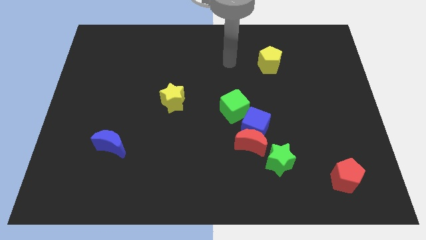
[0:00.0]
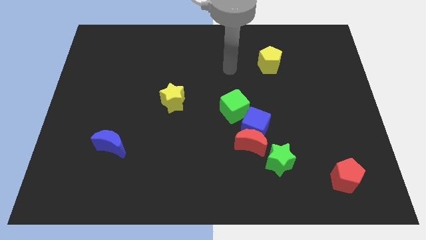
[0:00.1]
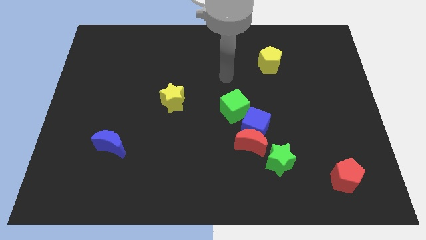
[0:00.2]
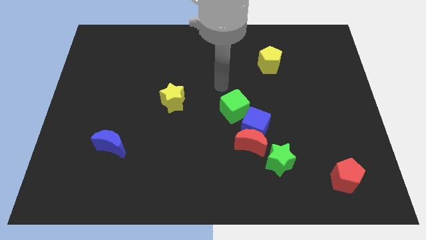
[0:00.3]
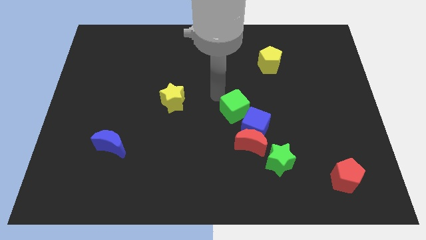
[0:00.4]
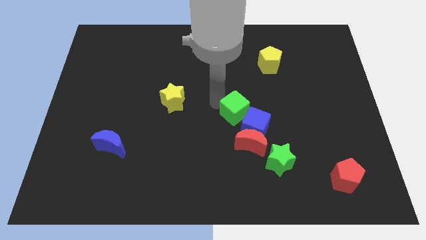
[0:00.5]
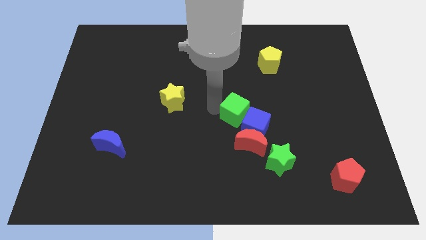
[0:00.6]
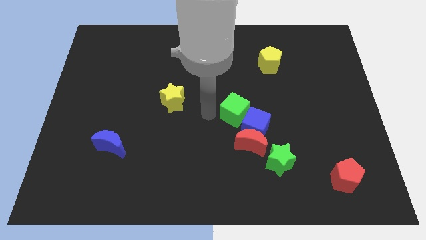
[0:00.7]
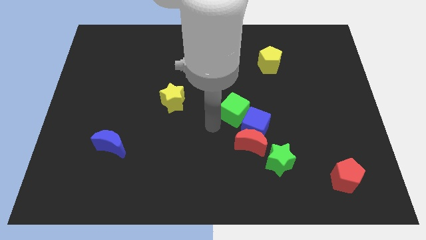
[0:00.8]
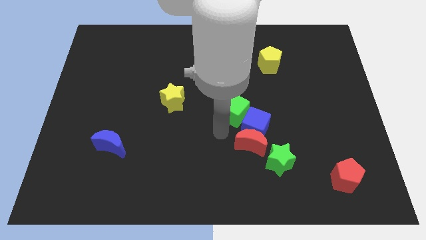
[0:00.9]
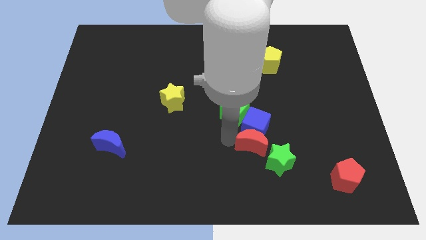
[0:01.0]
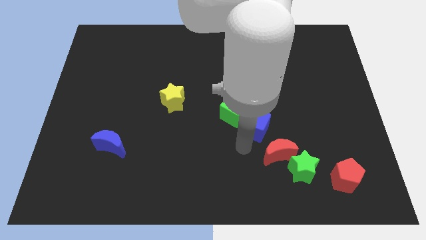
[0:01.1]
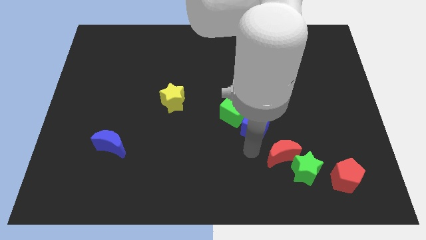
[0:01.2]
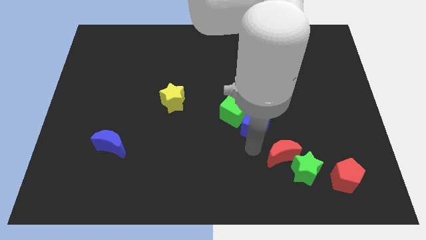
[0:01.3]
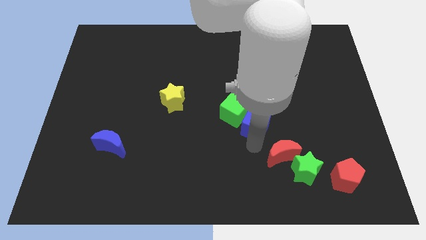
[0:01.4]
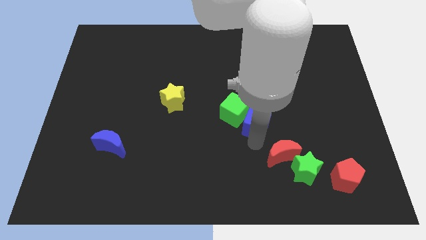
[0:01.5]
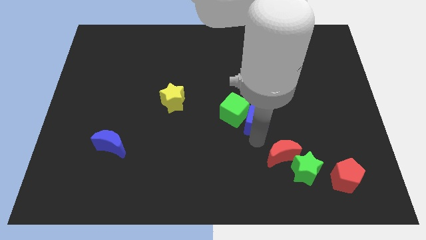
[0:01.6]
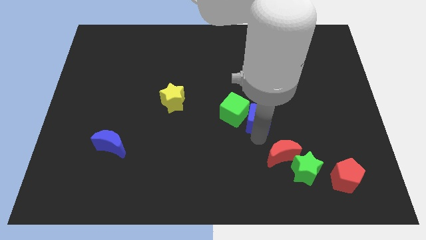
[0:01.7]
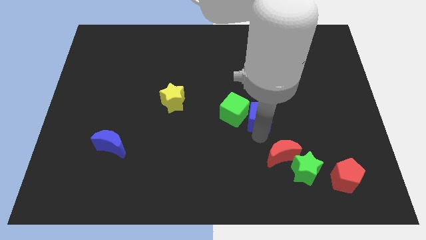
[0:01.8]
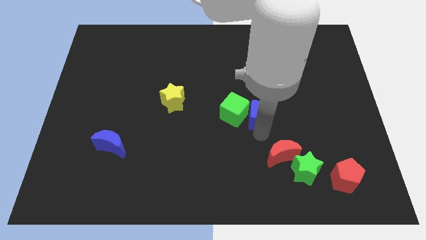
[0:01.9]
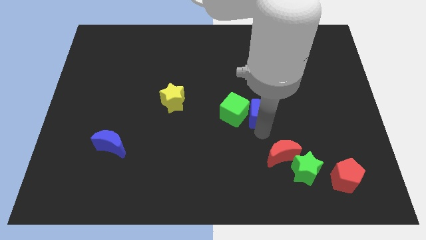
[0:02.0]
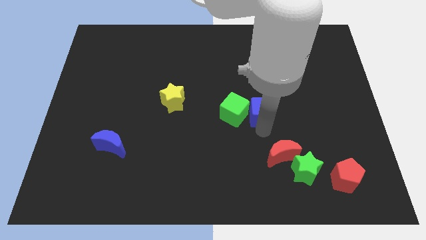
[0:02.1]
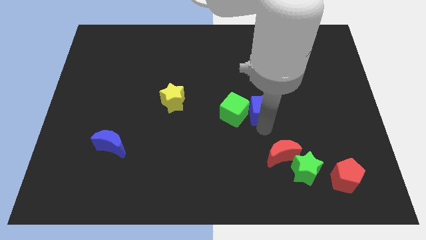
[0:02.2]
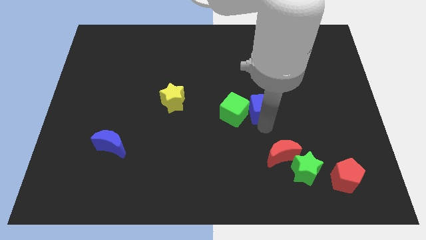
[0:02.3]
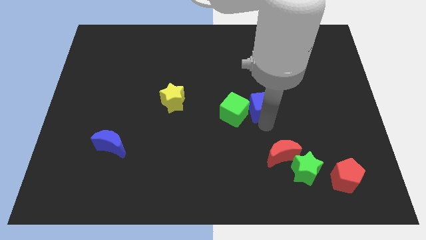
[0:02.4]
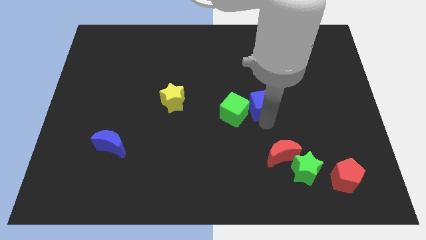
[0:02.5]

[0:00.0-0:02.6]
move the blue cube away from the red moon, green cube, and green star

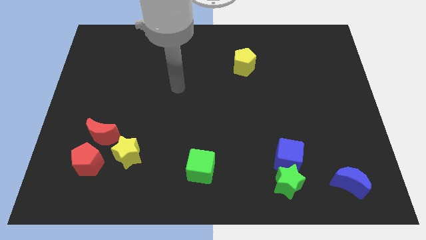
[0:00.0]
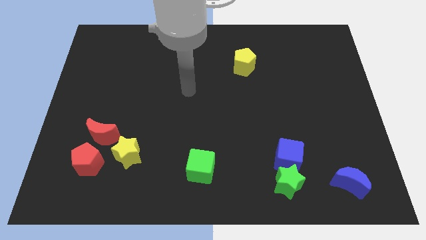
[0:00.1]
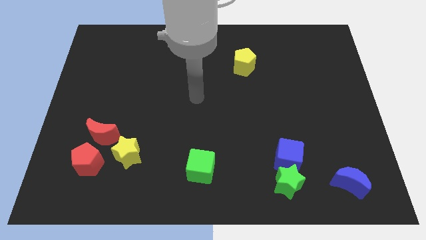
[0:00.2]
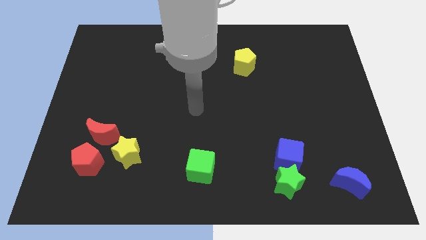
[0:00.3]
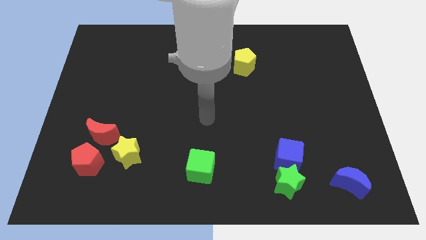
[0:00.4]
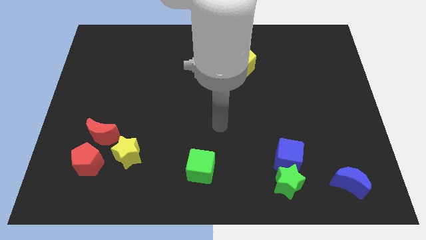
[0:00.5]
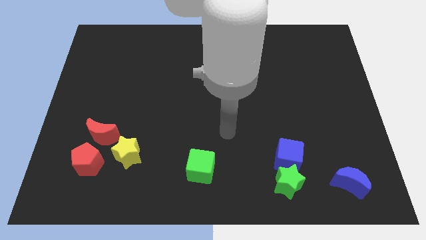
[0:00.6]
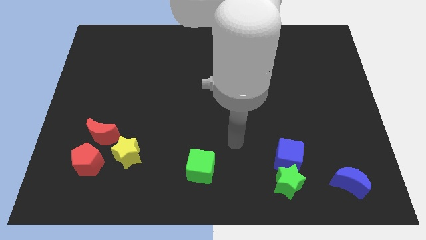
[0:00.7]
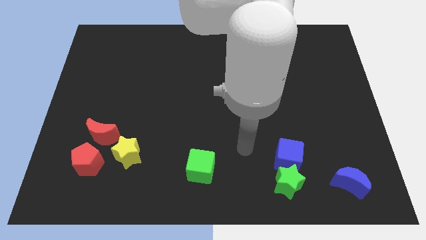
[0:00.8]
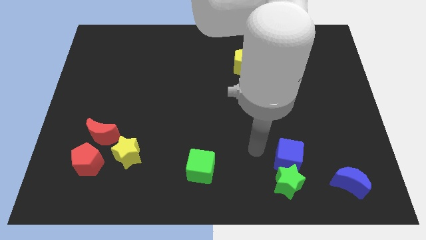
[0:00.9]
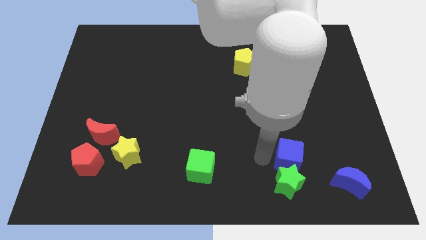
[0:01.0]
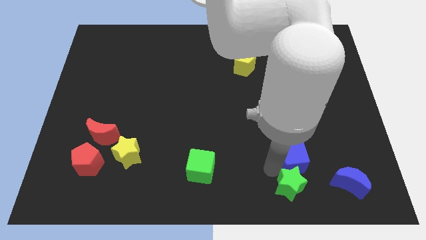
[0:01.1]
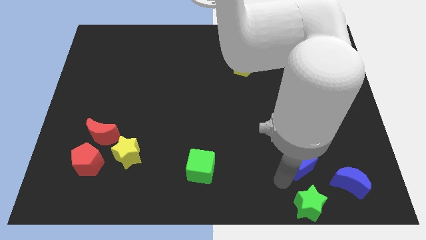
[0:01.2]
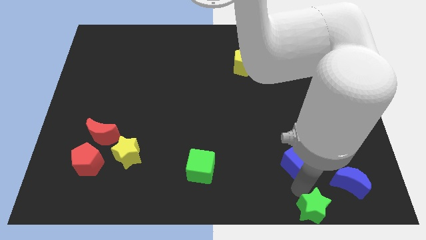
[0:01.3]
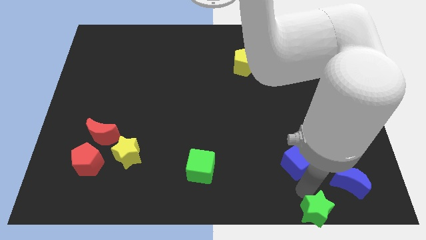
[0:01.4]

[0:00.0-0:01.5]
pull the blue cube apart from the green star

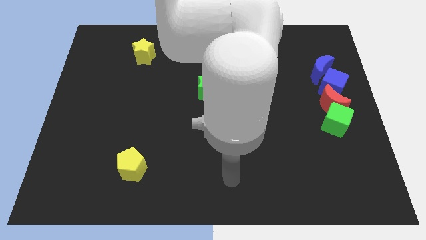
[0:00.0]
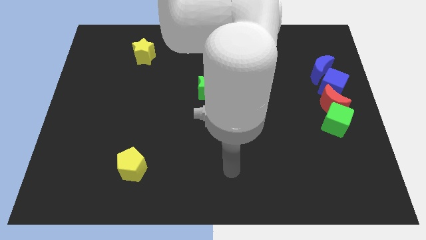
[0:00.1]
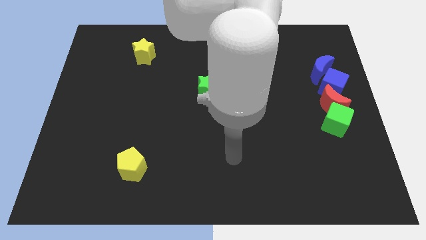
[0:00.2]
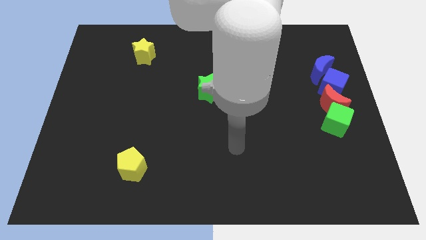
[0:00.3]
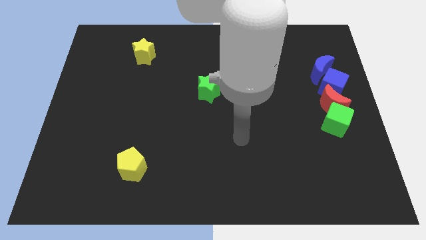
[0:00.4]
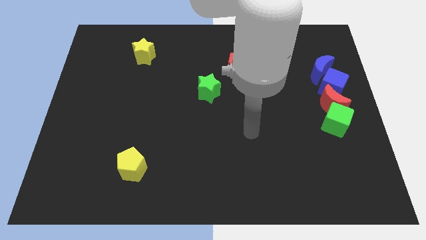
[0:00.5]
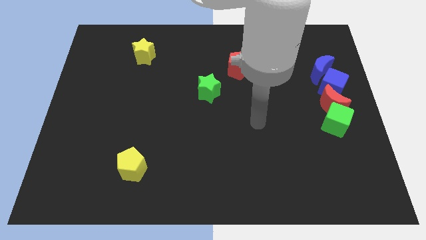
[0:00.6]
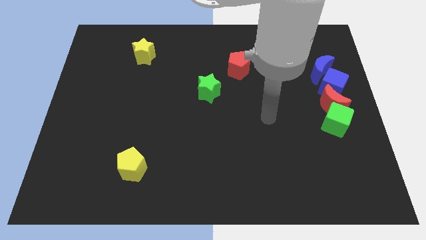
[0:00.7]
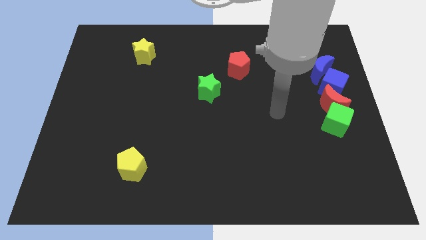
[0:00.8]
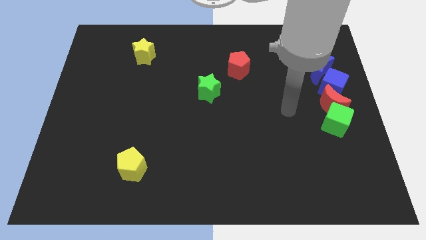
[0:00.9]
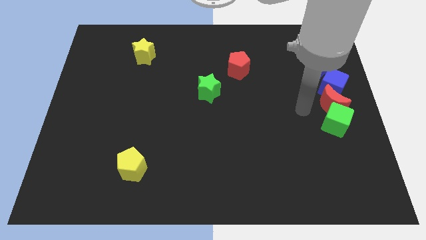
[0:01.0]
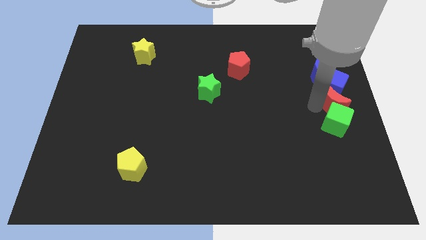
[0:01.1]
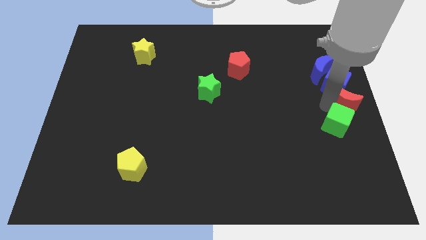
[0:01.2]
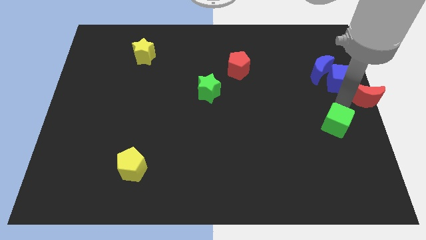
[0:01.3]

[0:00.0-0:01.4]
move the green cube away from the red moon

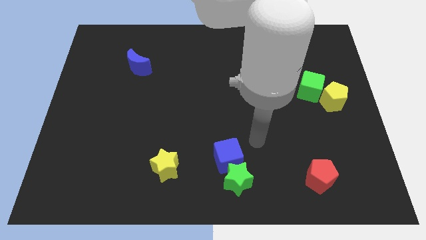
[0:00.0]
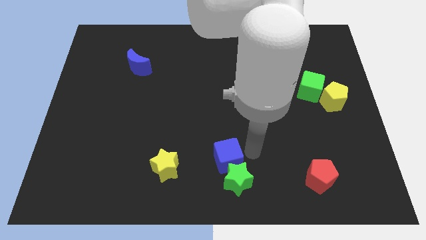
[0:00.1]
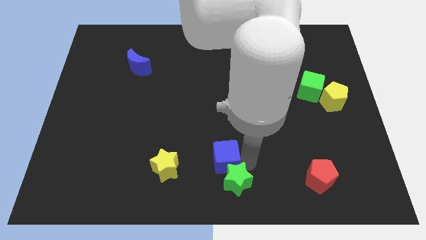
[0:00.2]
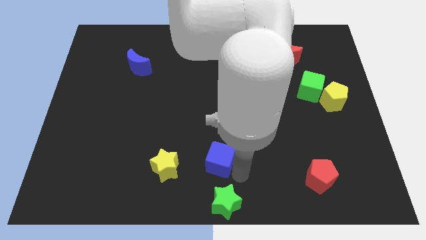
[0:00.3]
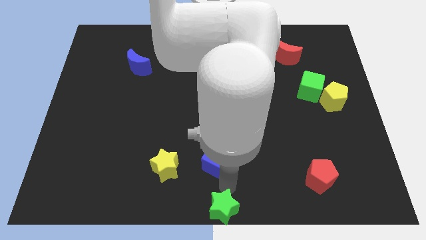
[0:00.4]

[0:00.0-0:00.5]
move the blue cube away from the green star

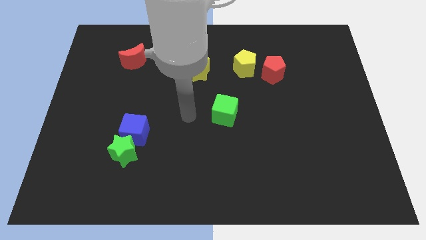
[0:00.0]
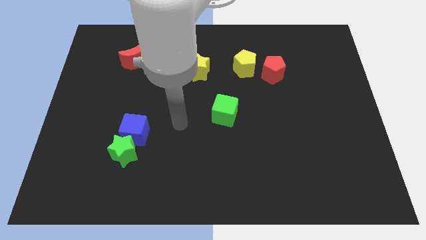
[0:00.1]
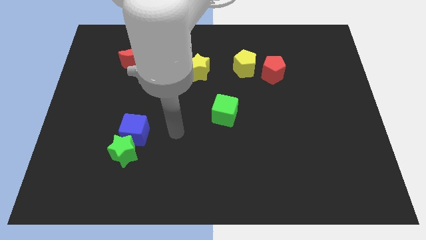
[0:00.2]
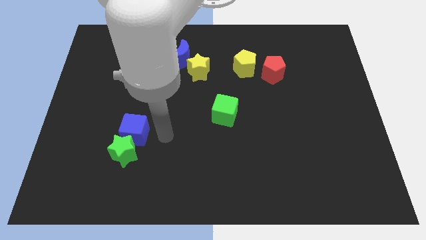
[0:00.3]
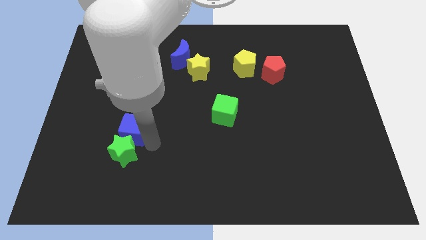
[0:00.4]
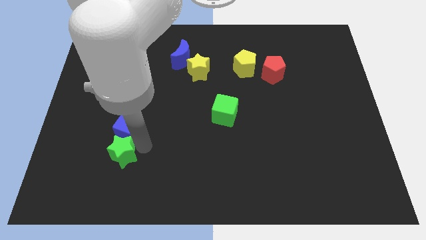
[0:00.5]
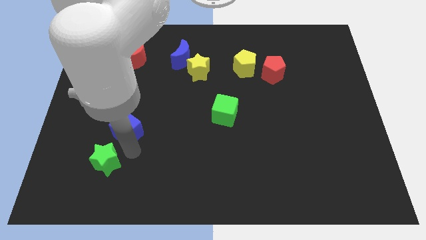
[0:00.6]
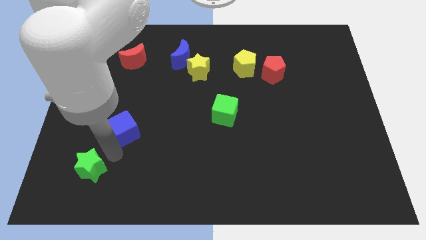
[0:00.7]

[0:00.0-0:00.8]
separate the blue cube from the green star

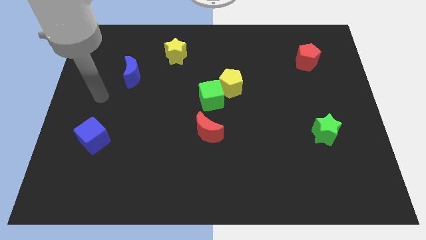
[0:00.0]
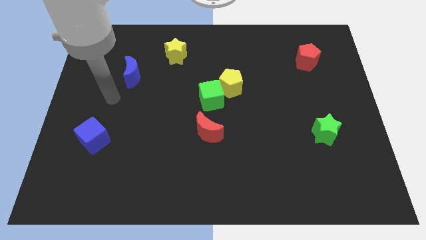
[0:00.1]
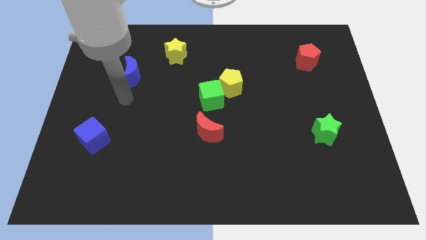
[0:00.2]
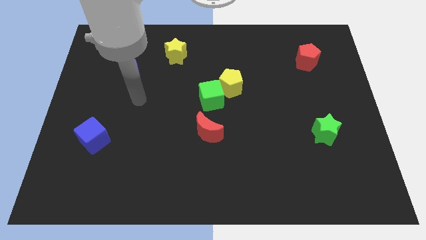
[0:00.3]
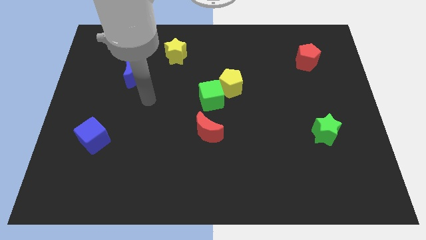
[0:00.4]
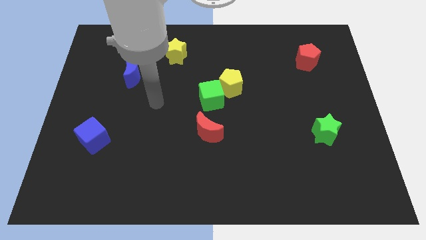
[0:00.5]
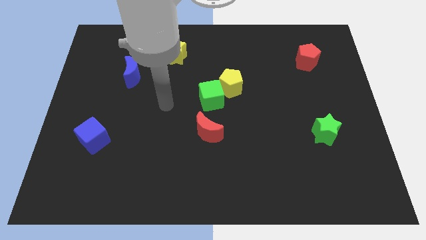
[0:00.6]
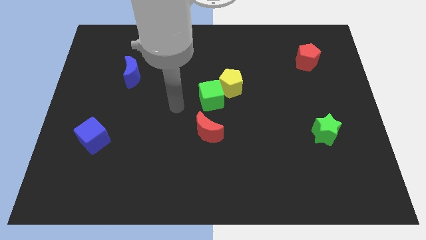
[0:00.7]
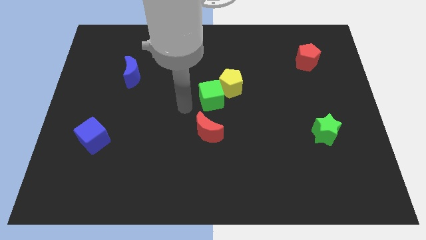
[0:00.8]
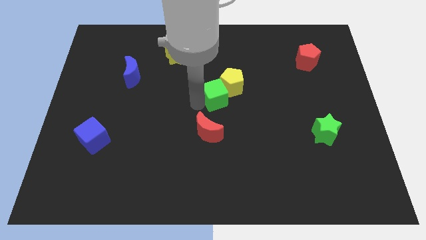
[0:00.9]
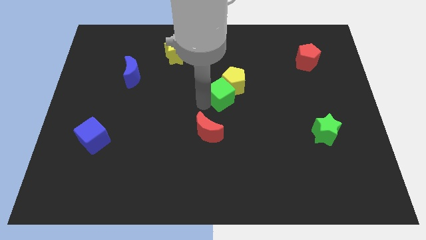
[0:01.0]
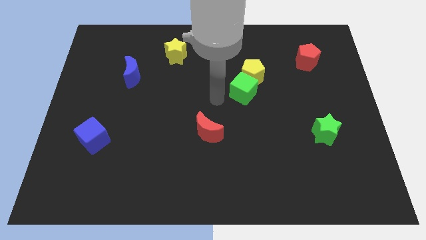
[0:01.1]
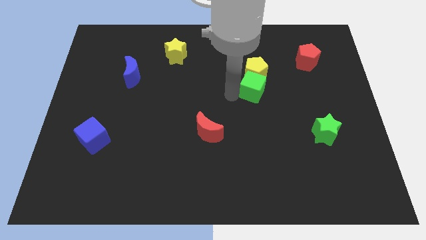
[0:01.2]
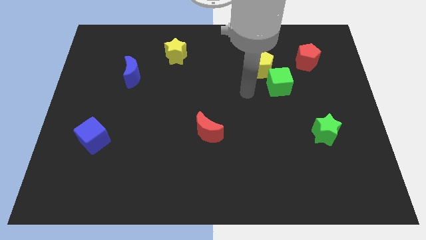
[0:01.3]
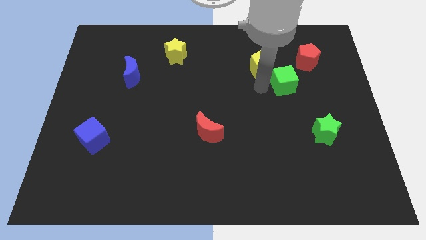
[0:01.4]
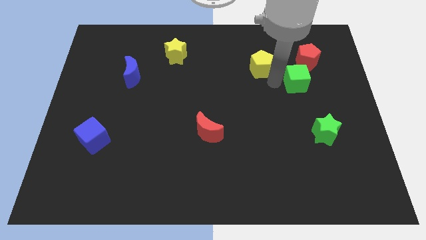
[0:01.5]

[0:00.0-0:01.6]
move the yellow pentagon away from the green cube

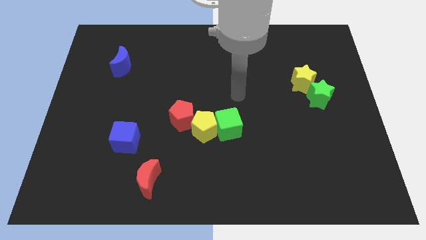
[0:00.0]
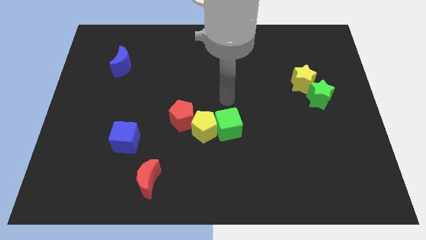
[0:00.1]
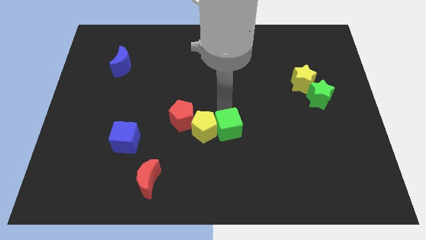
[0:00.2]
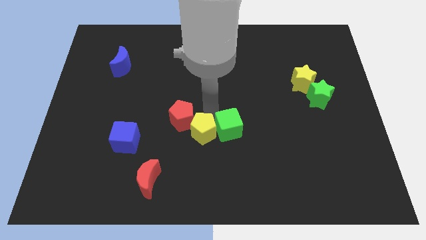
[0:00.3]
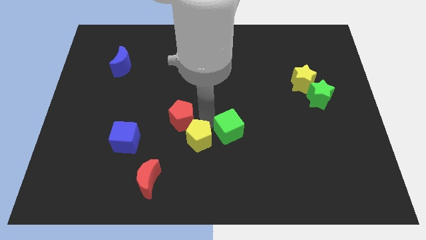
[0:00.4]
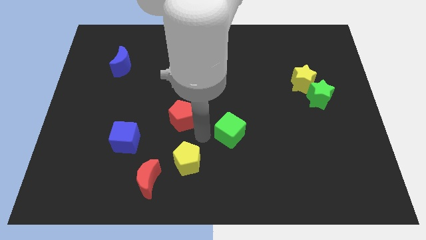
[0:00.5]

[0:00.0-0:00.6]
separate the green cube from the yellow pentagon

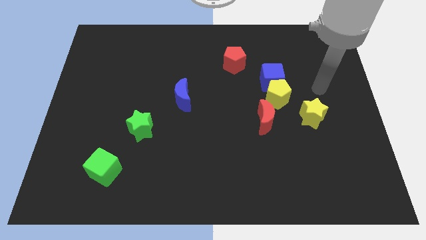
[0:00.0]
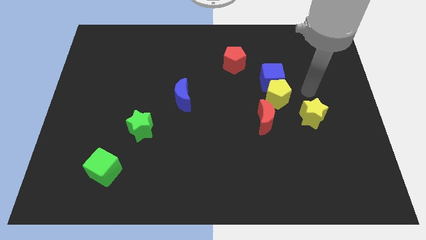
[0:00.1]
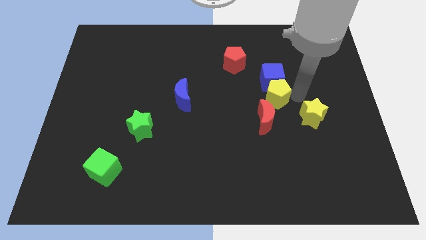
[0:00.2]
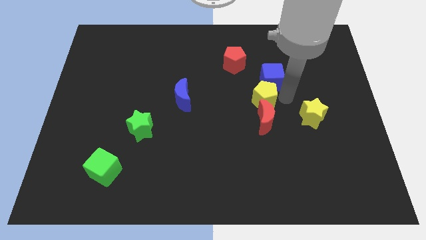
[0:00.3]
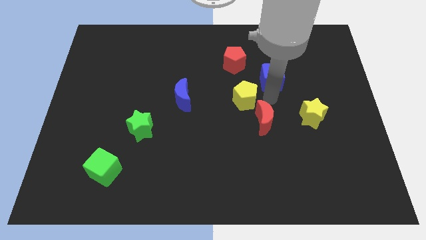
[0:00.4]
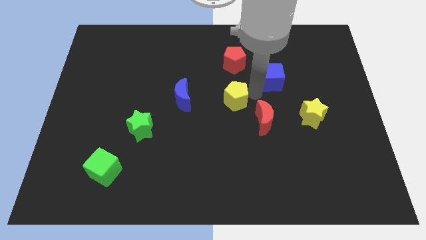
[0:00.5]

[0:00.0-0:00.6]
separate the blue cube from the yellow pentagon
